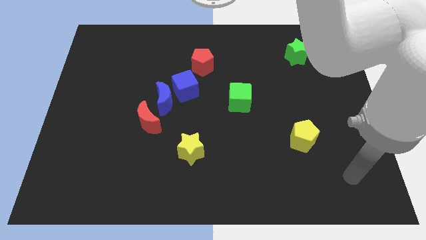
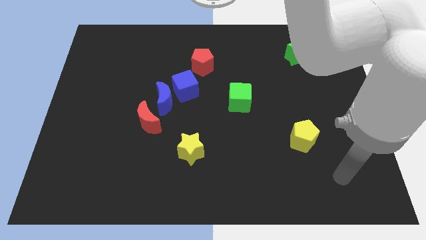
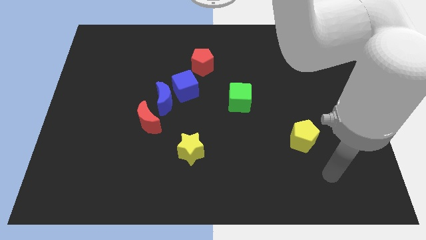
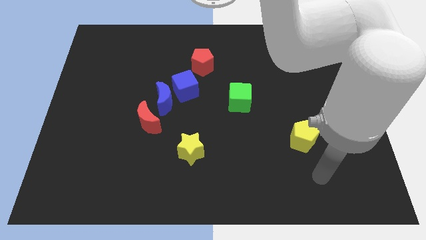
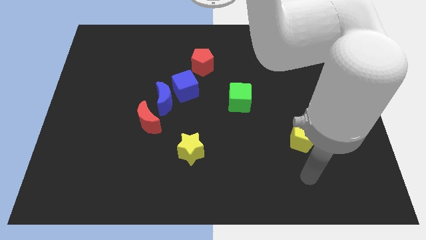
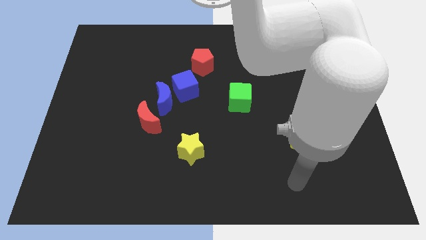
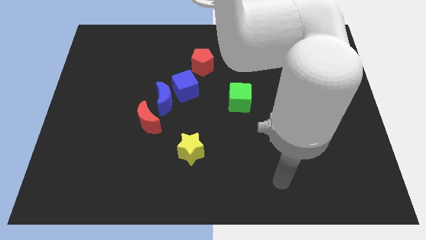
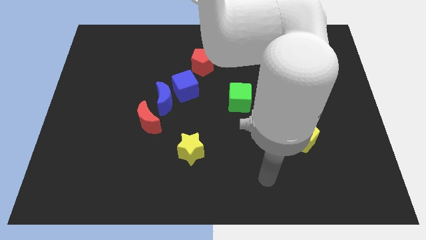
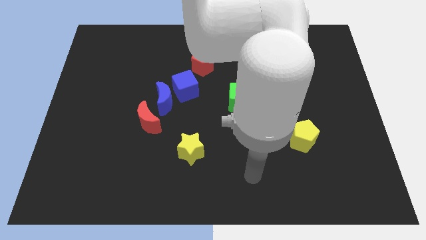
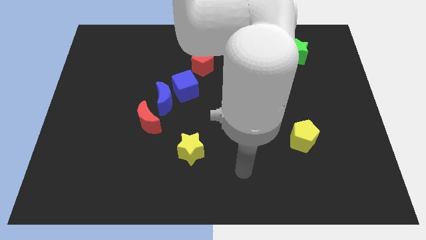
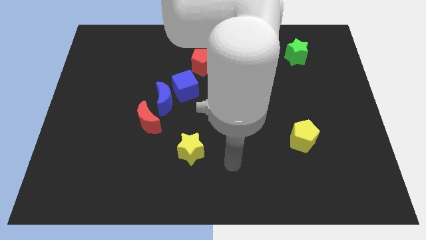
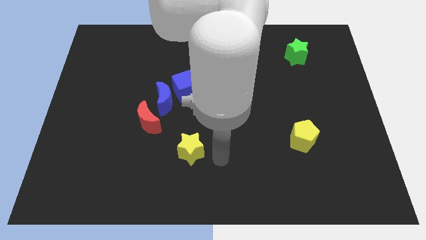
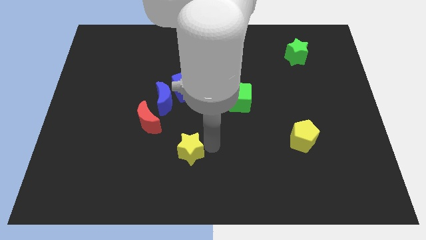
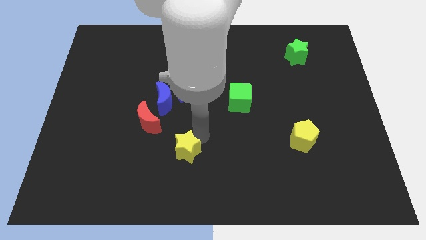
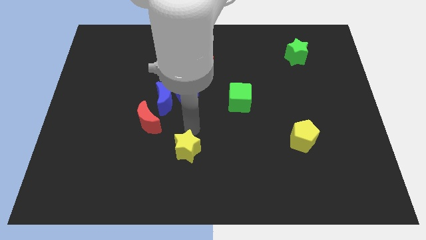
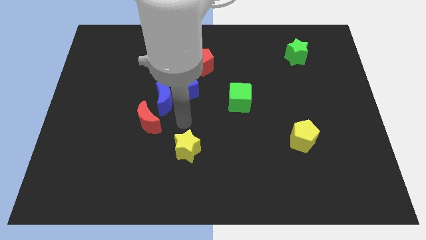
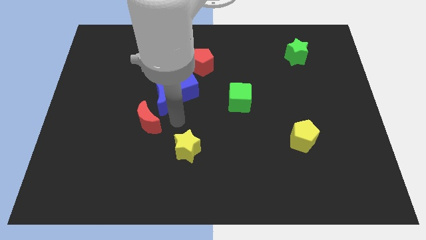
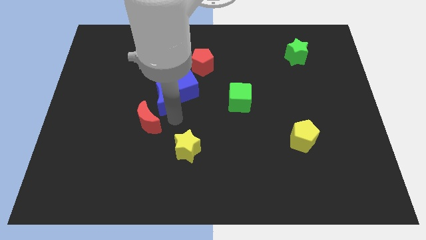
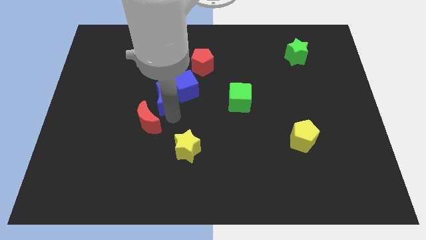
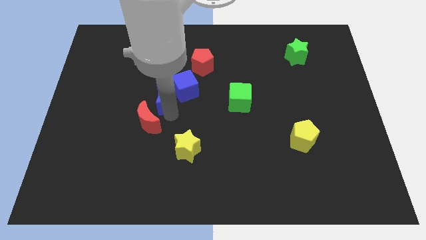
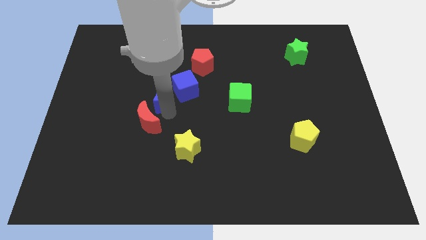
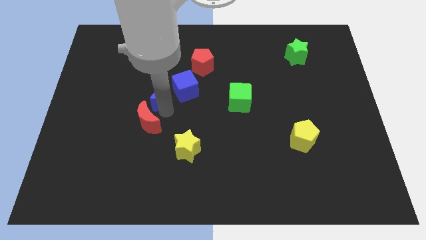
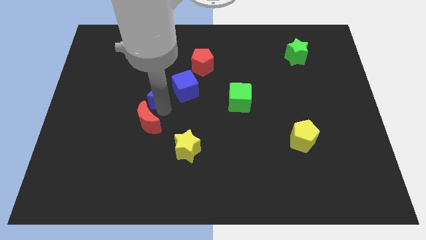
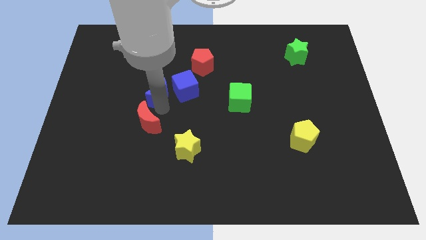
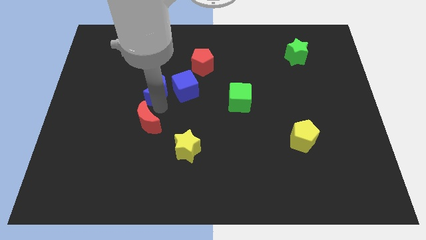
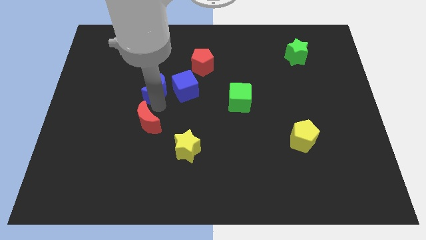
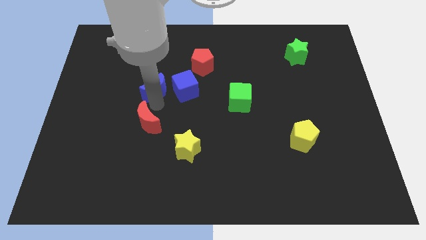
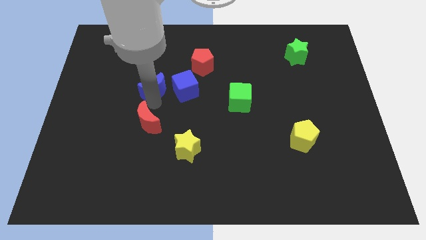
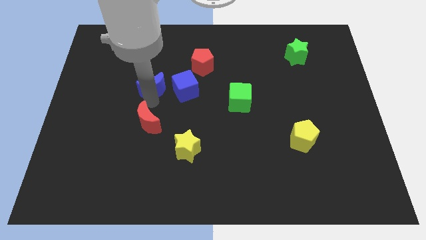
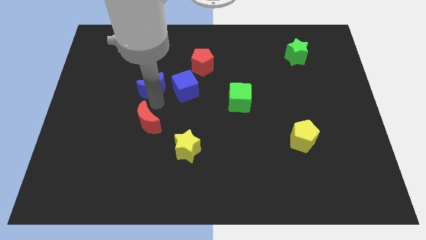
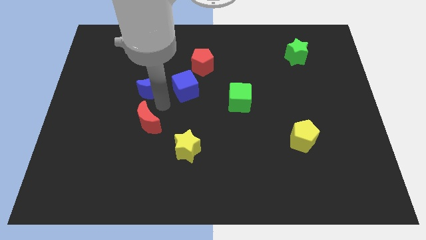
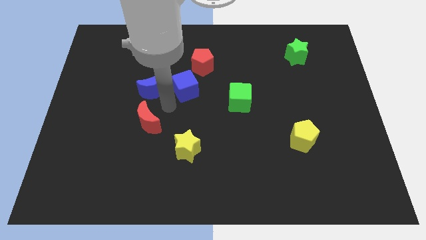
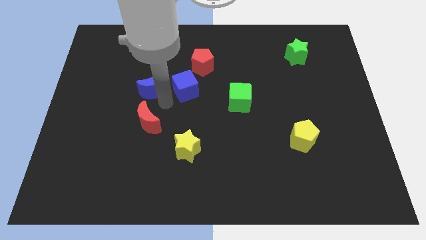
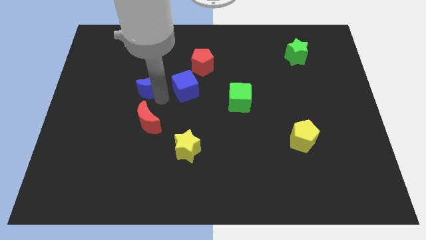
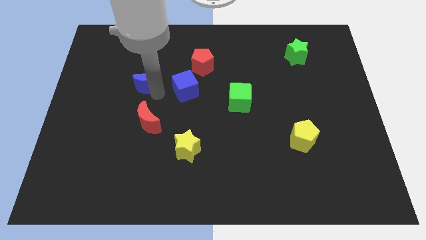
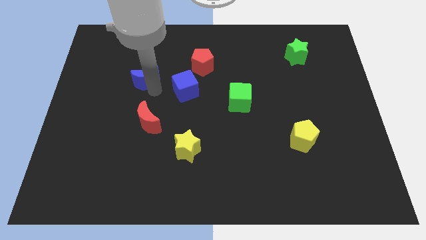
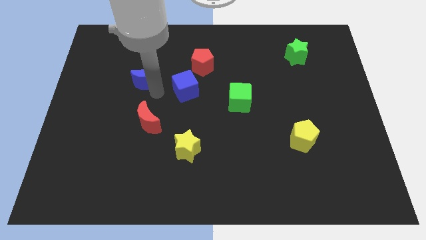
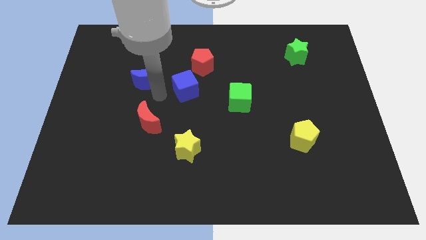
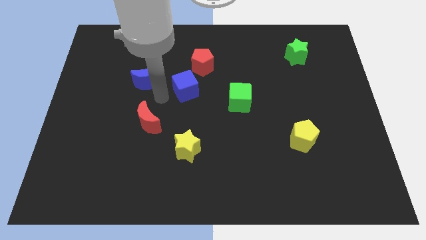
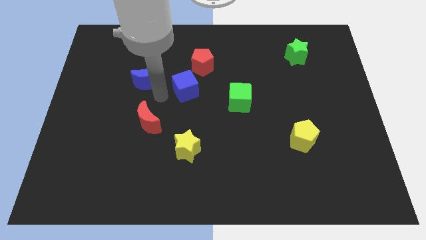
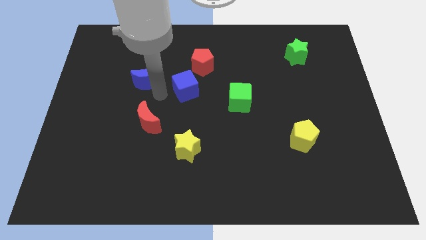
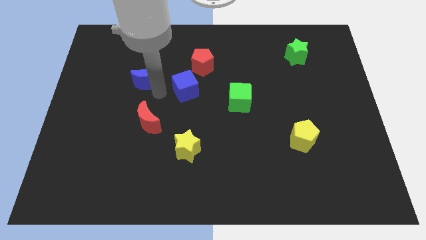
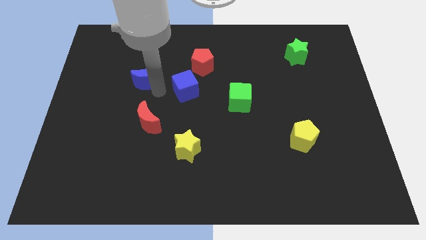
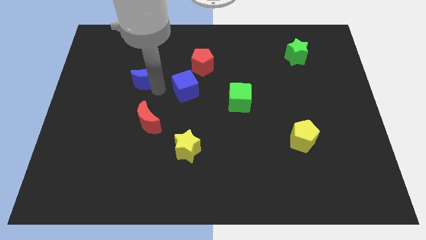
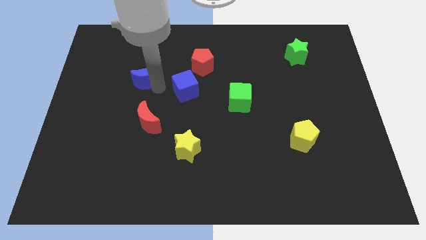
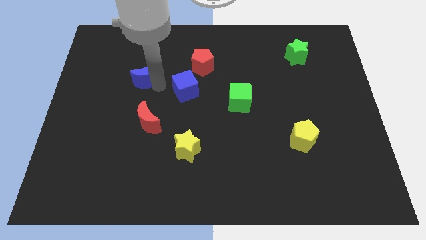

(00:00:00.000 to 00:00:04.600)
move the blue moon away from the blue cube and red moon

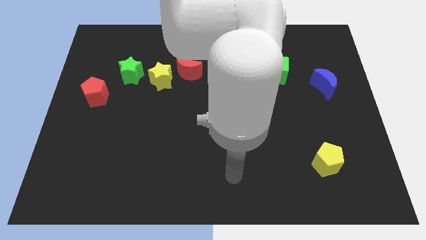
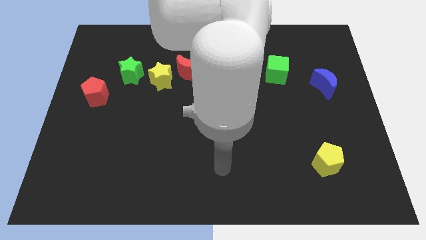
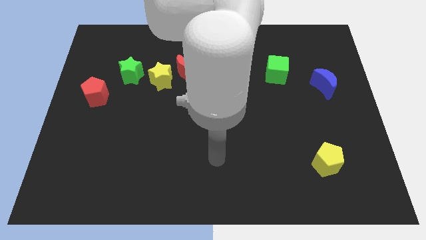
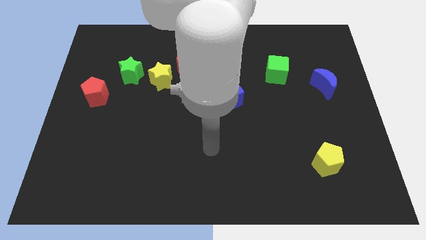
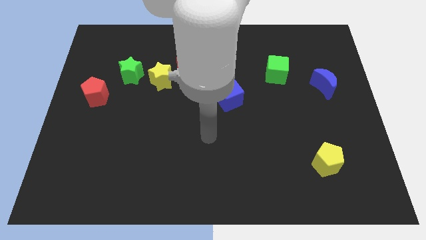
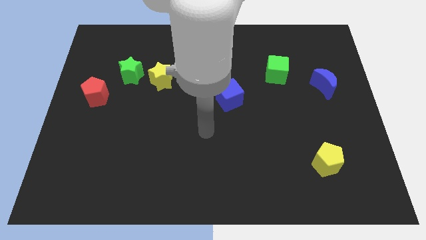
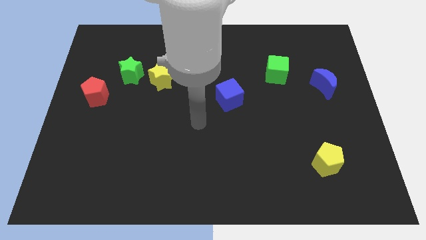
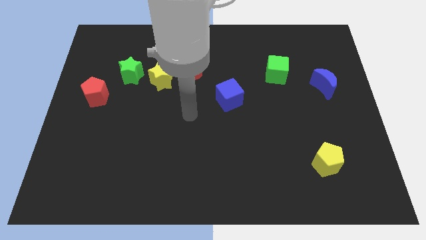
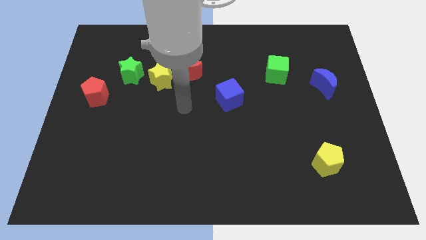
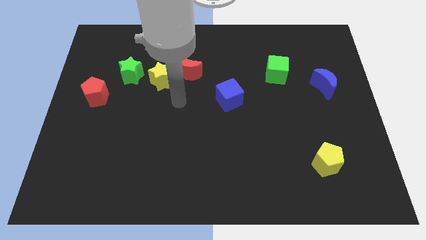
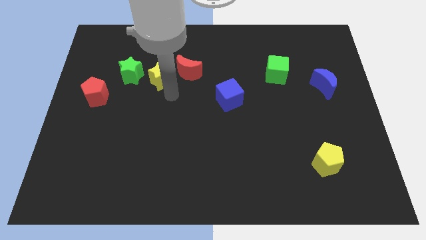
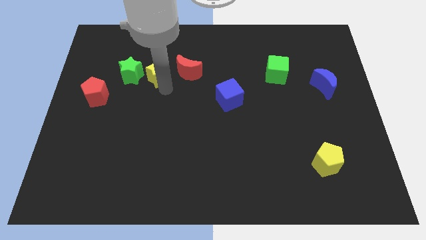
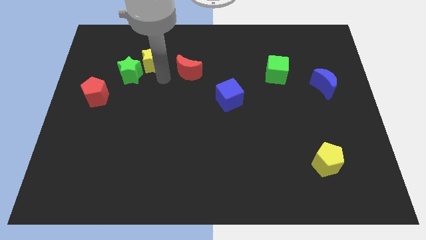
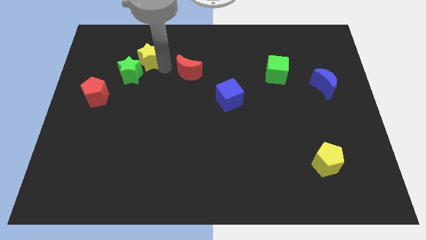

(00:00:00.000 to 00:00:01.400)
separate the red moon from the yellow star

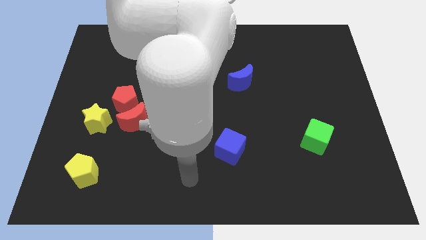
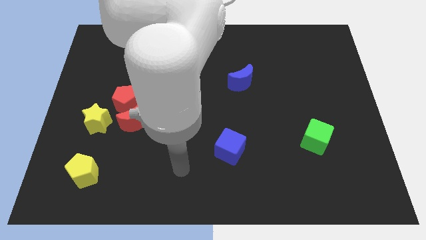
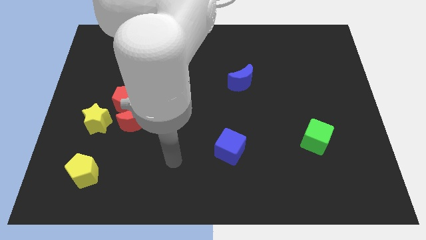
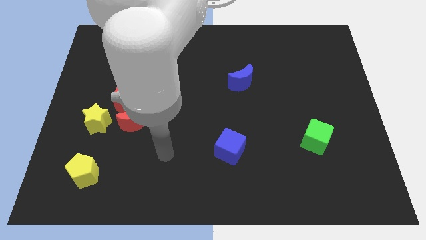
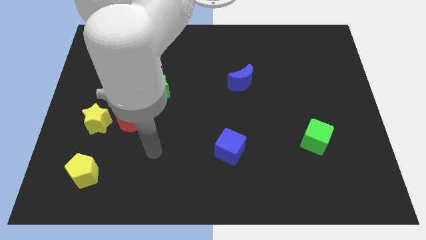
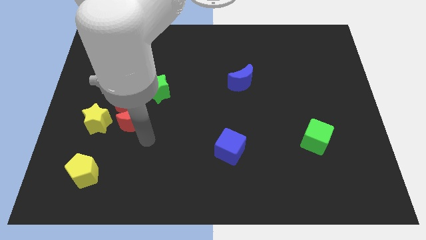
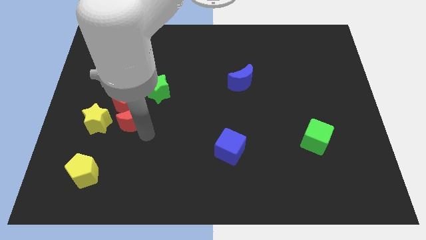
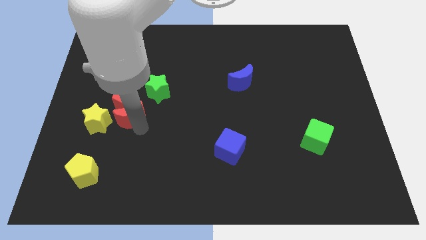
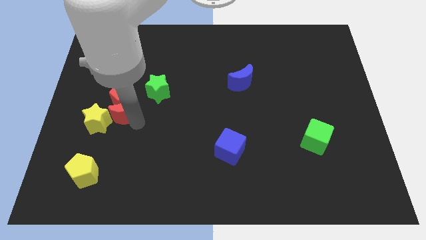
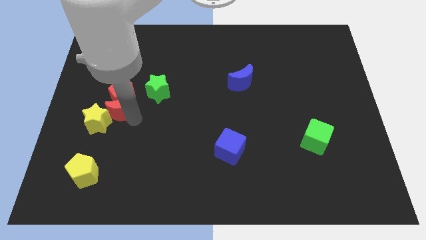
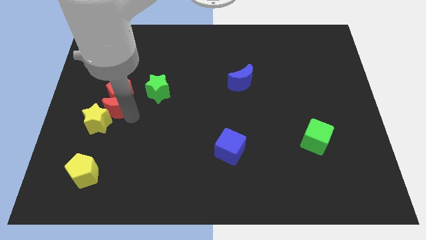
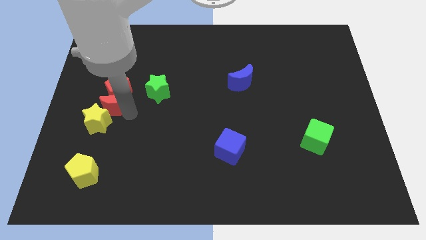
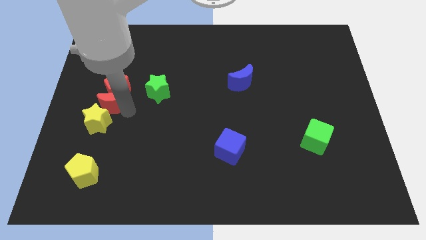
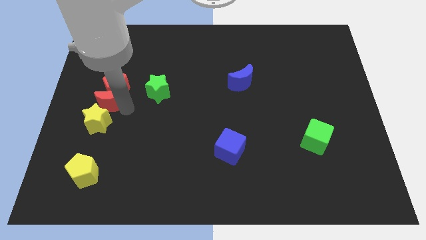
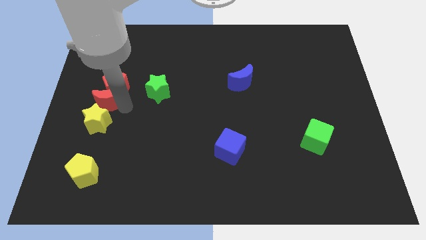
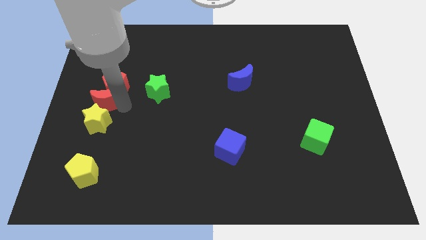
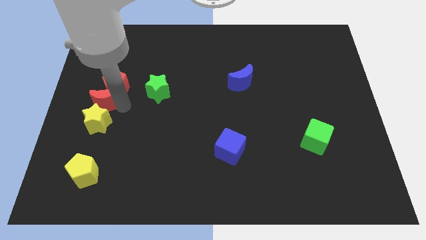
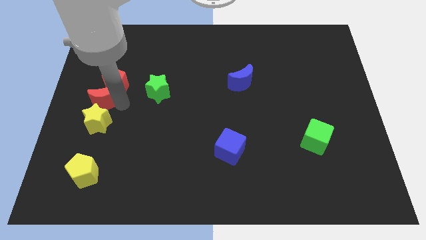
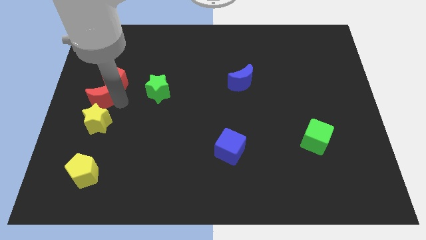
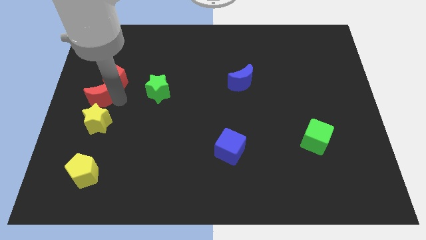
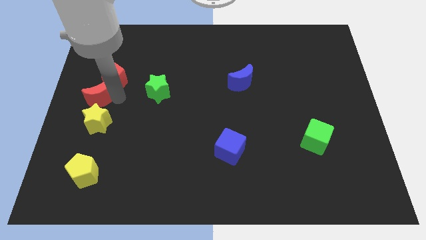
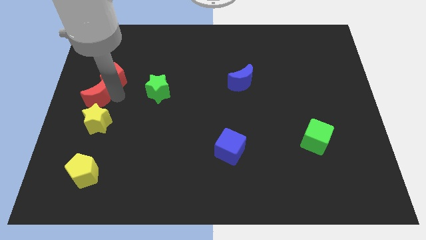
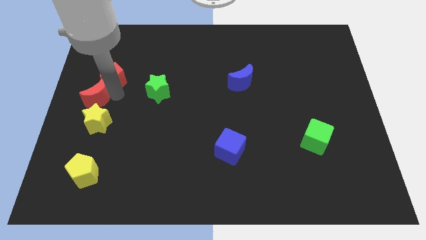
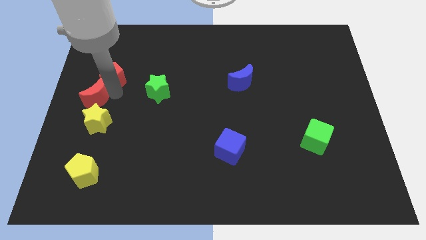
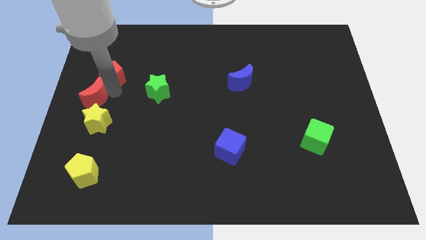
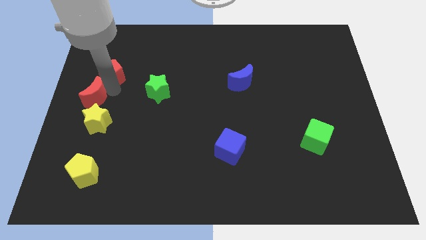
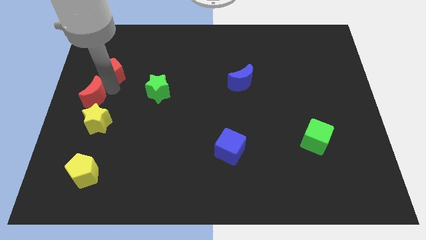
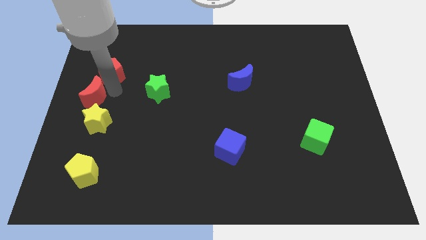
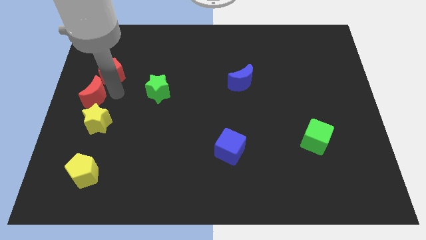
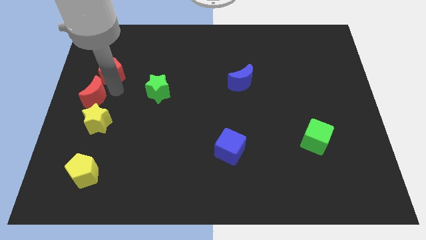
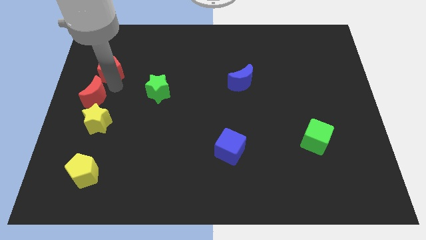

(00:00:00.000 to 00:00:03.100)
separate the red pentagon from the clump

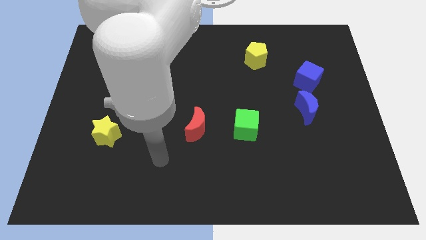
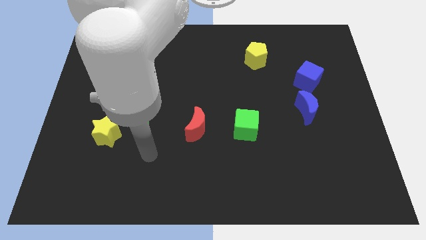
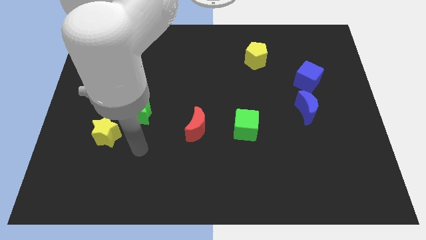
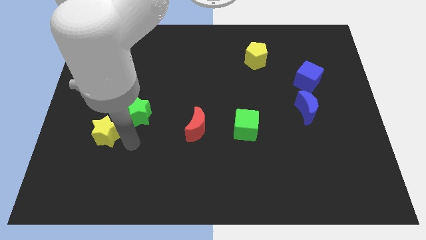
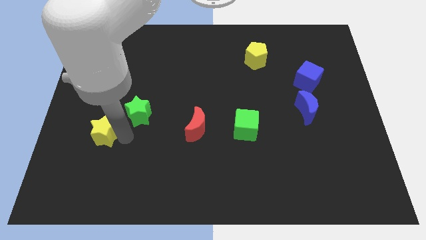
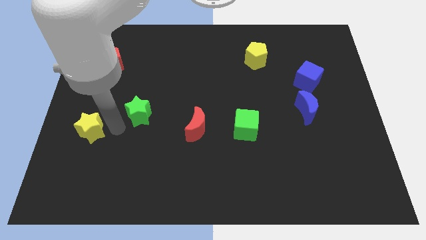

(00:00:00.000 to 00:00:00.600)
separate the green star from the yellow star
